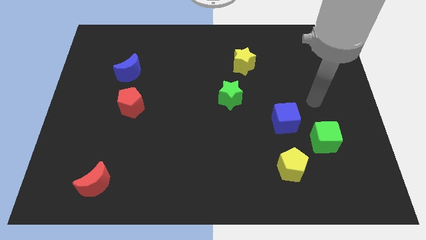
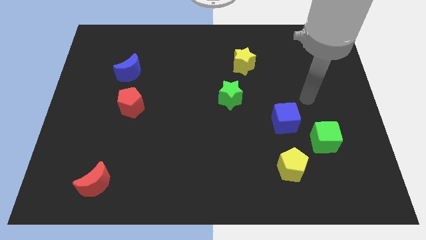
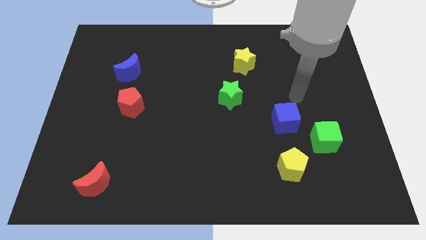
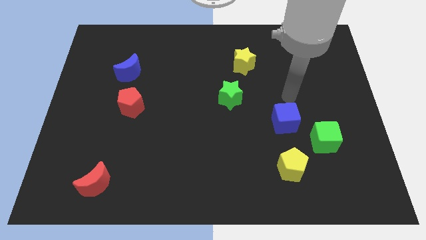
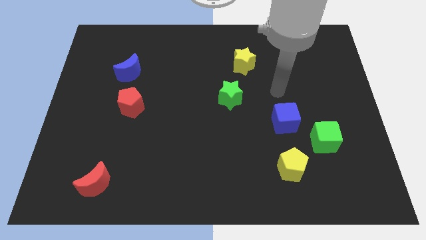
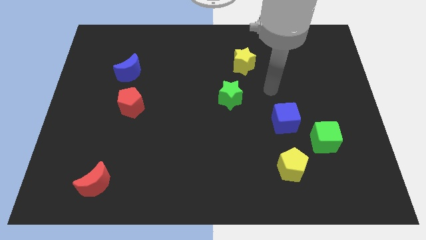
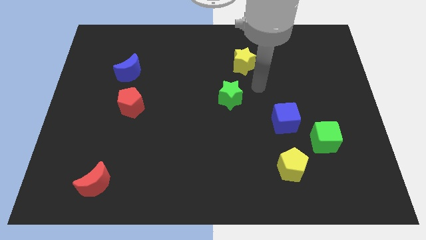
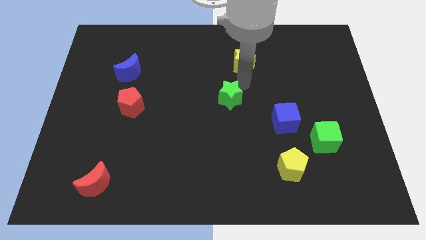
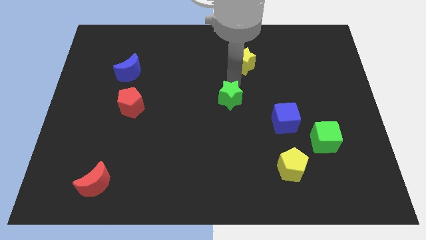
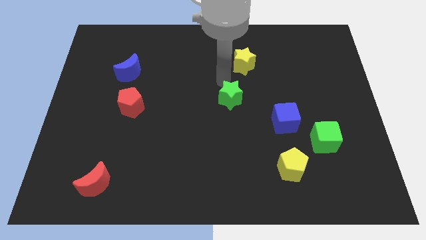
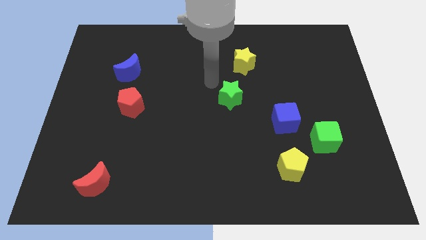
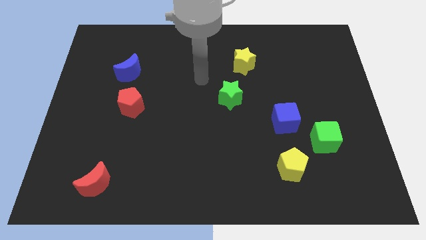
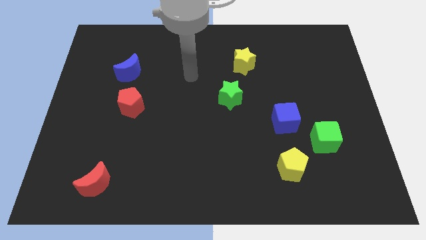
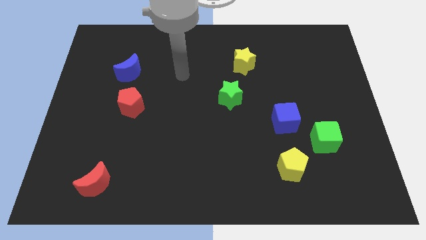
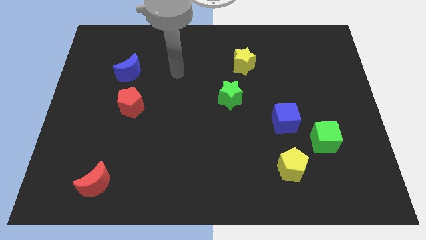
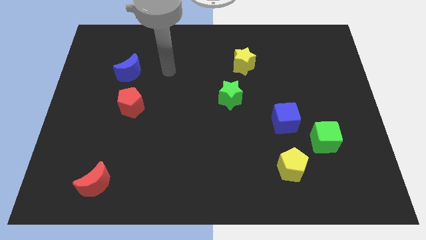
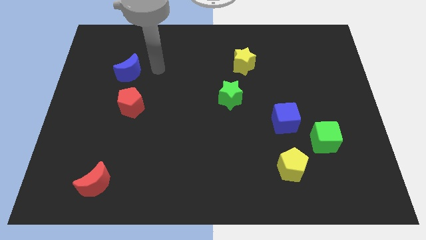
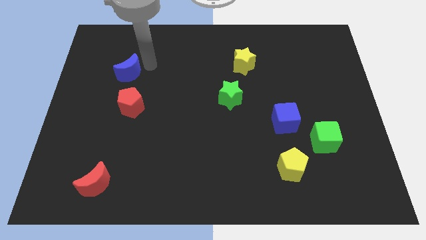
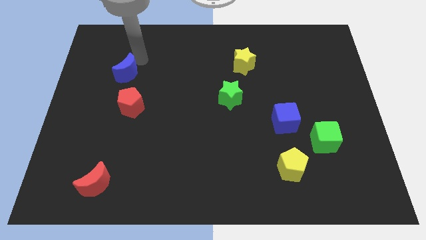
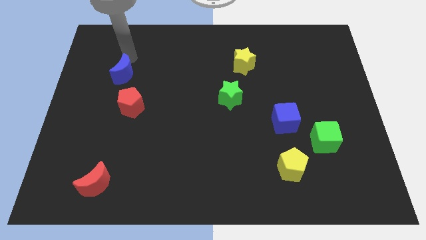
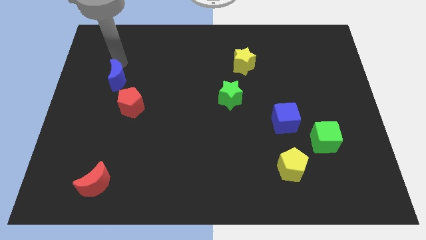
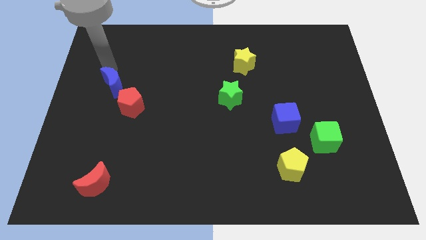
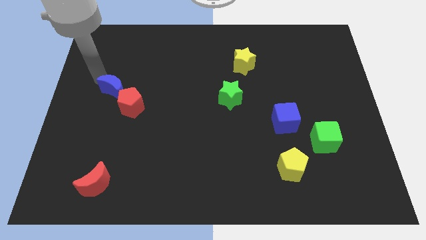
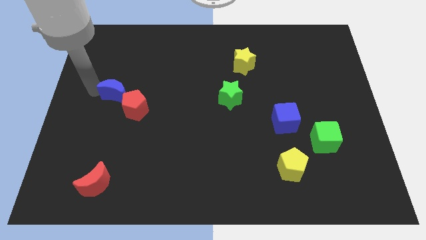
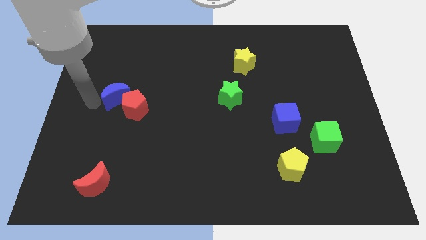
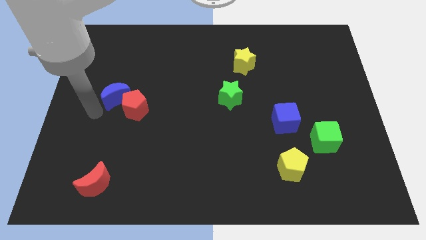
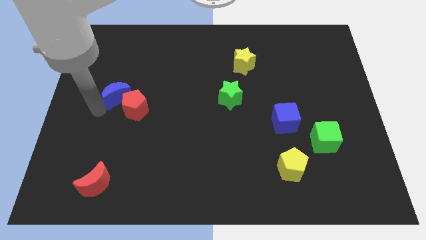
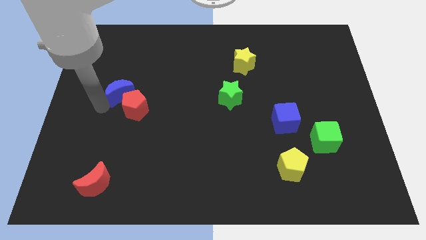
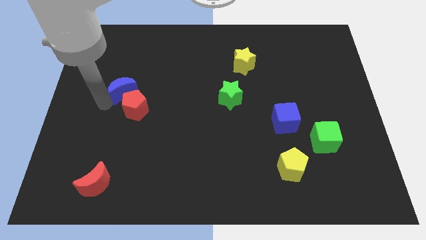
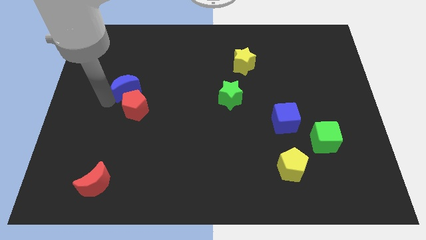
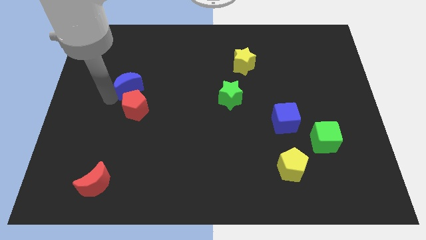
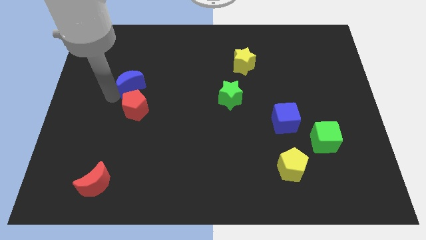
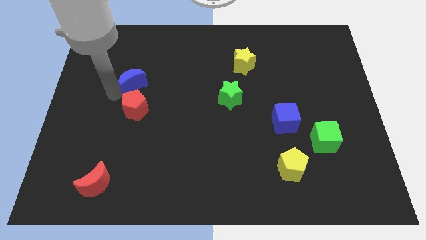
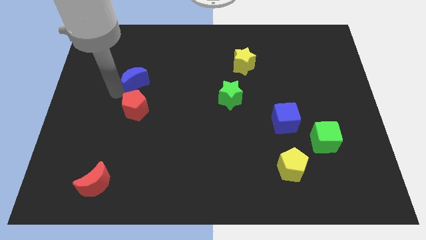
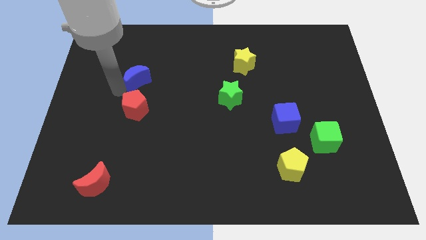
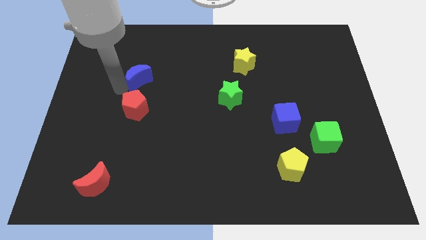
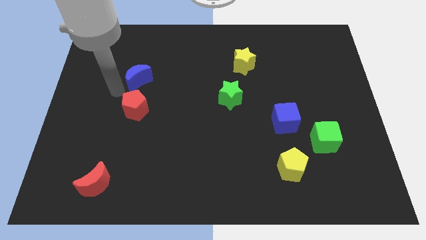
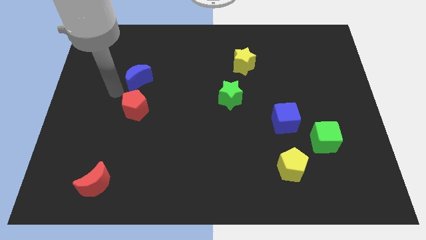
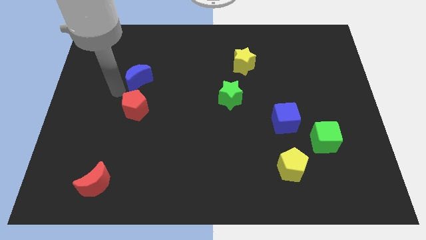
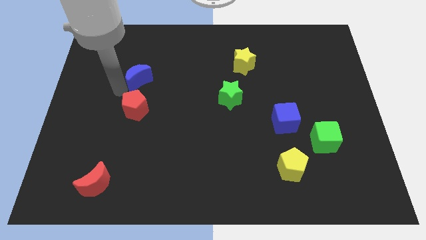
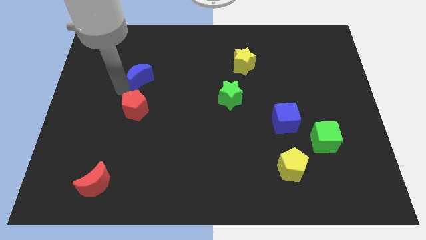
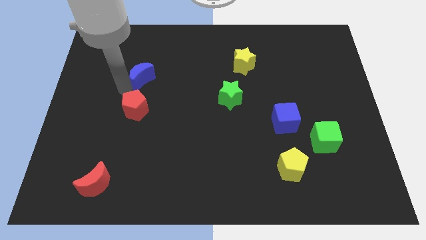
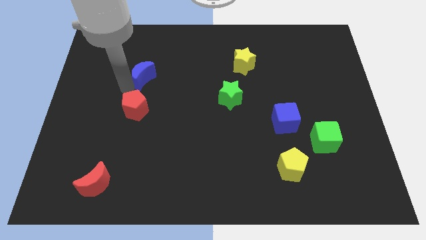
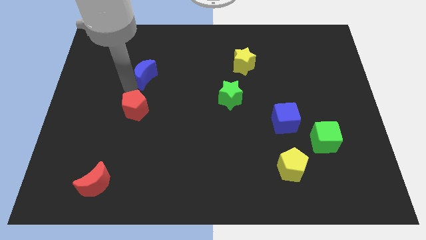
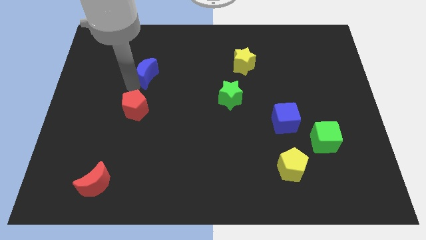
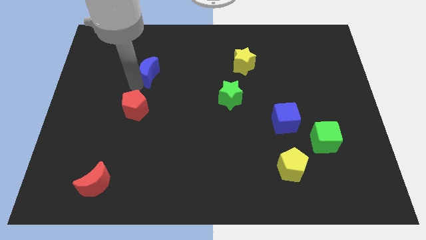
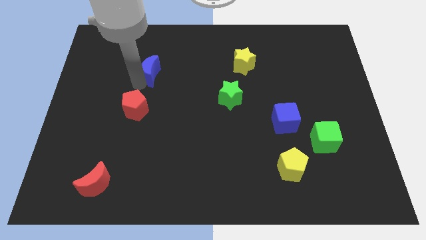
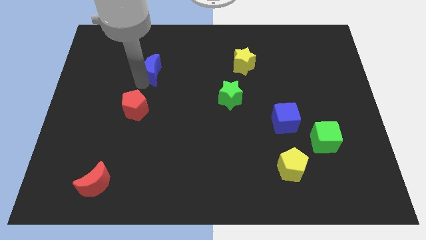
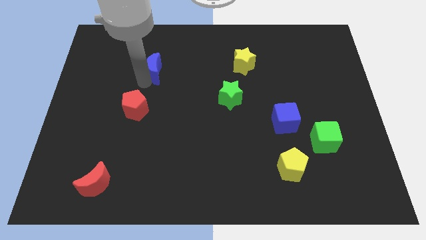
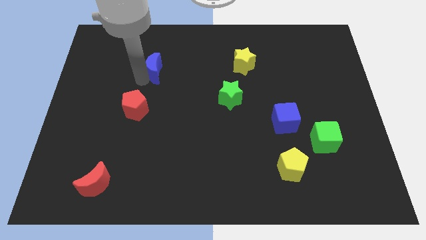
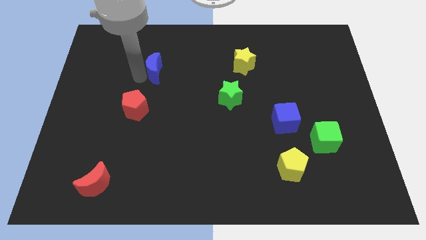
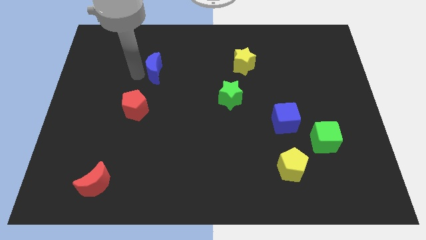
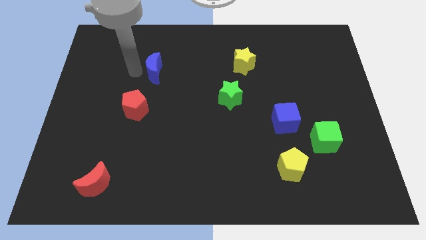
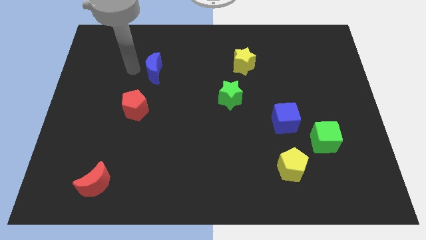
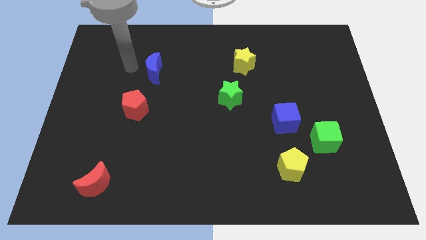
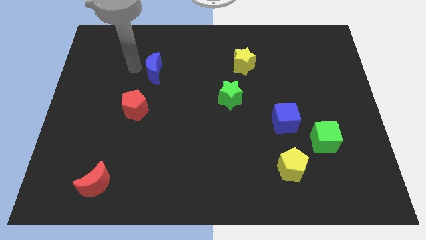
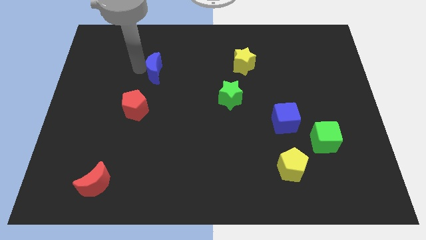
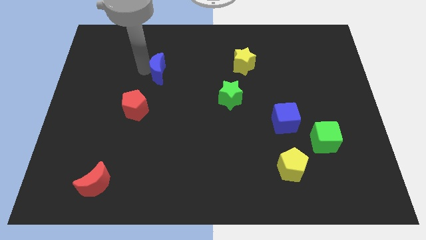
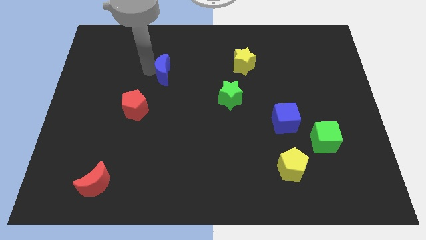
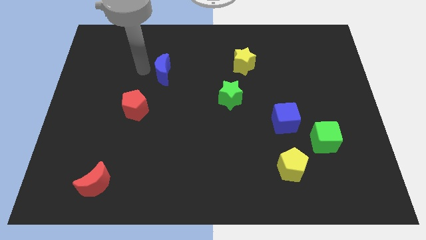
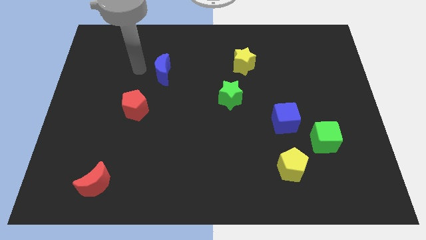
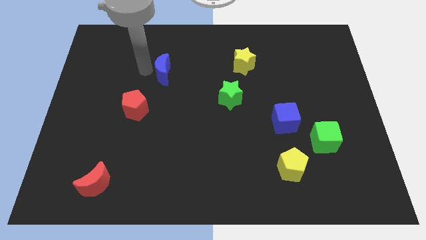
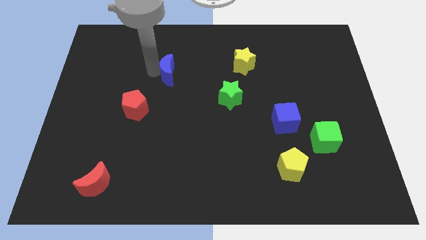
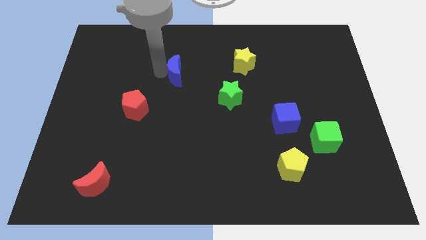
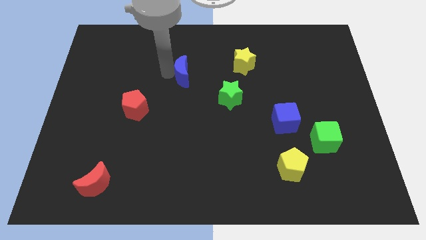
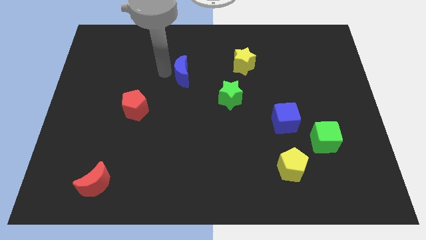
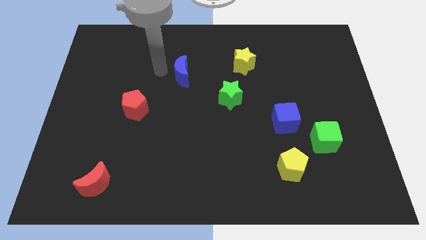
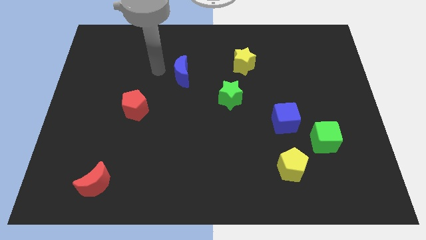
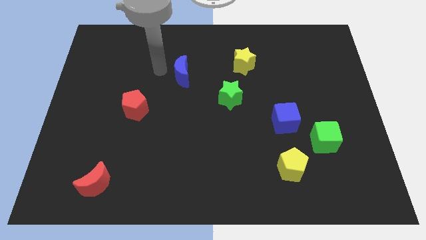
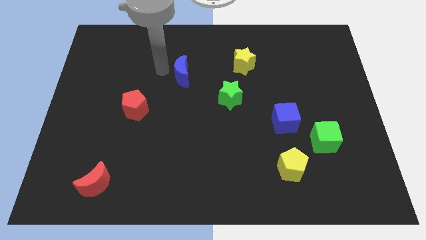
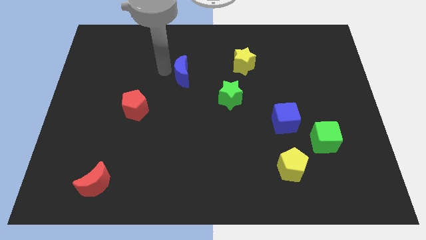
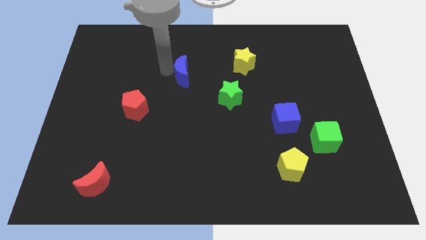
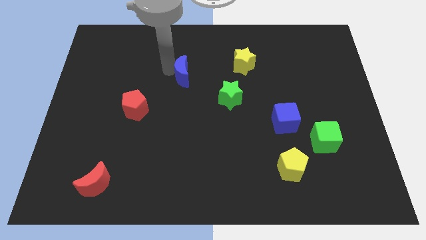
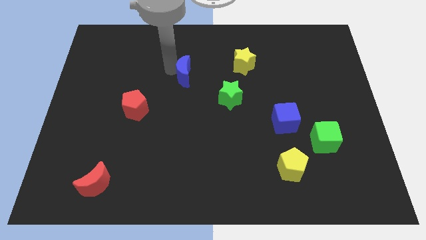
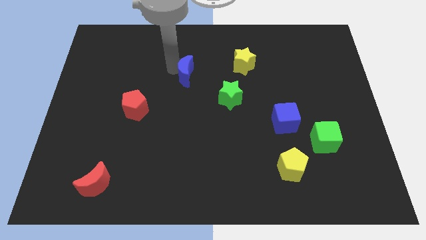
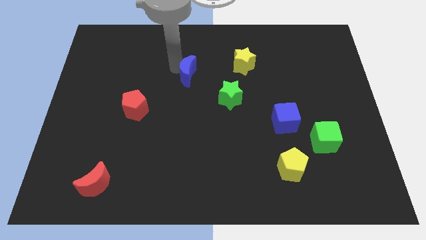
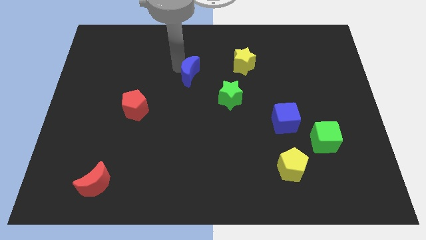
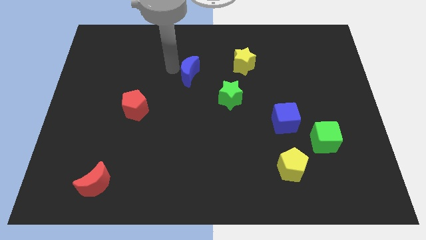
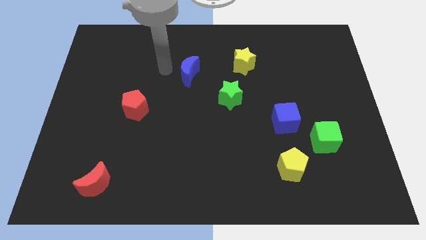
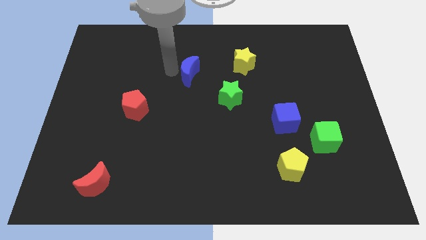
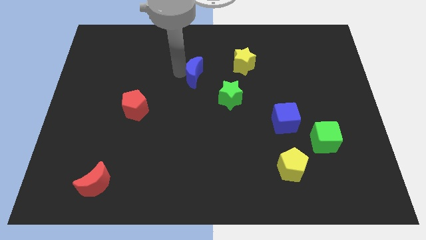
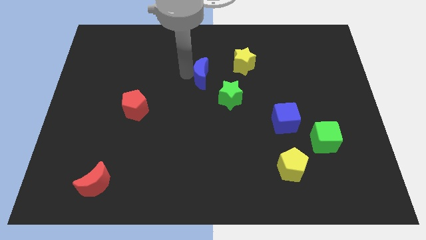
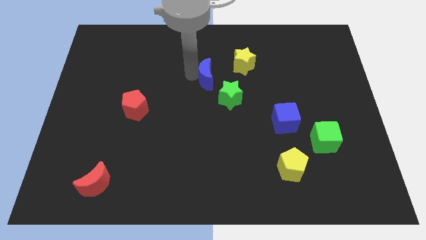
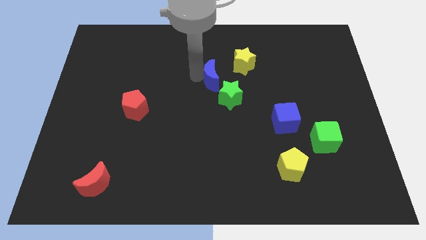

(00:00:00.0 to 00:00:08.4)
slide the blue moon right
